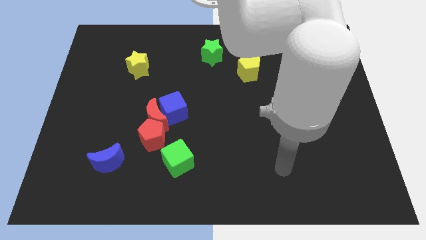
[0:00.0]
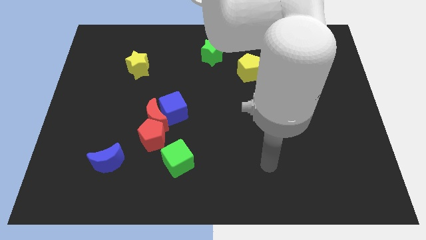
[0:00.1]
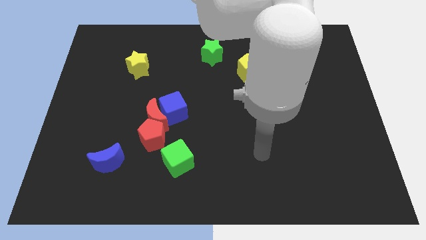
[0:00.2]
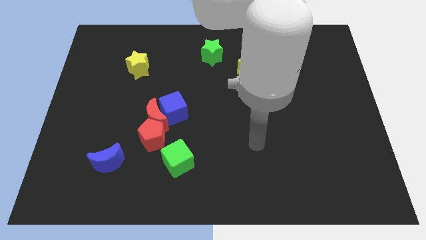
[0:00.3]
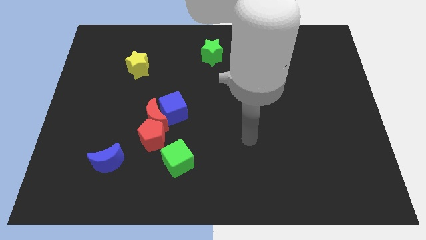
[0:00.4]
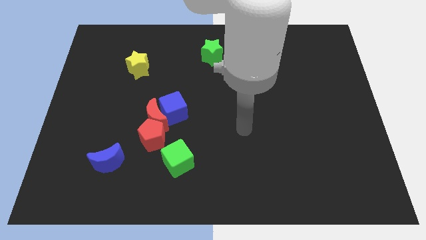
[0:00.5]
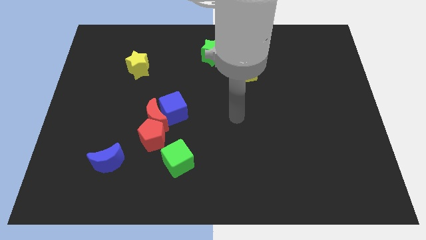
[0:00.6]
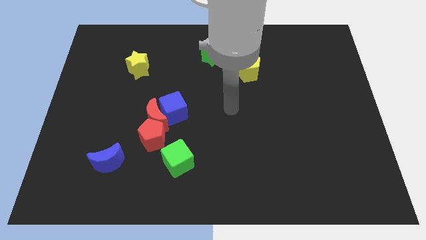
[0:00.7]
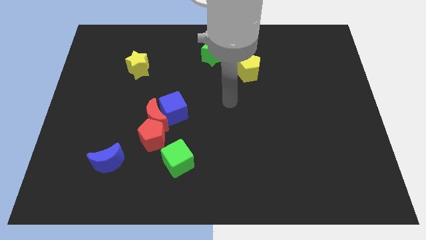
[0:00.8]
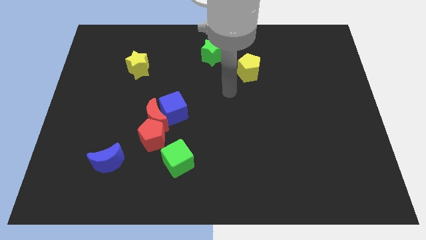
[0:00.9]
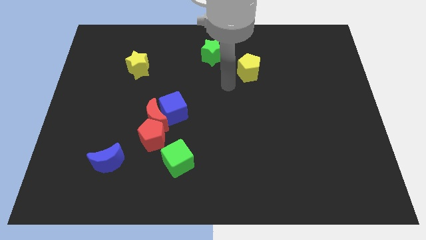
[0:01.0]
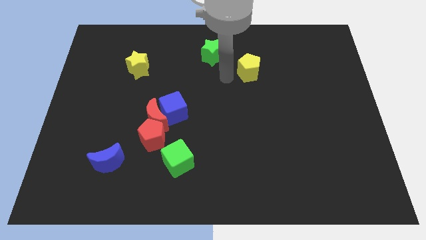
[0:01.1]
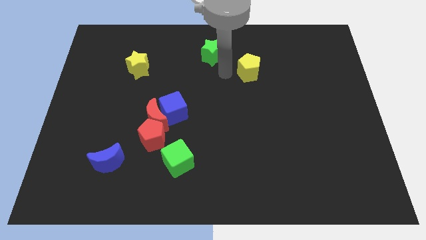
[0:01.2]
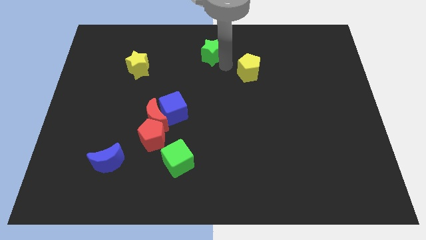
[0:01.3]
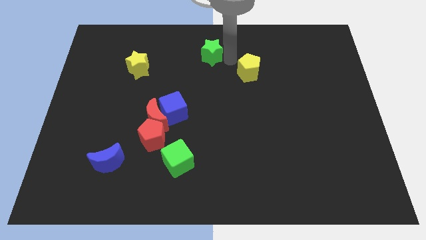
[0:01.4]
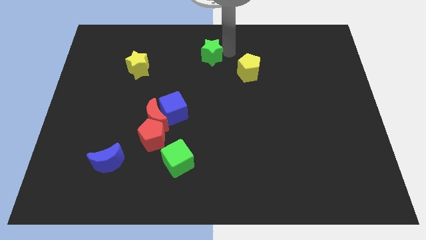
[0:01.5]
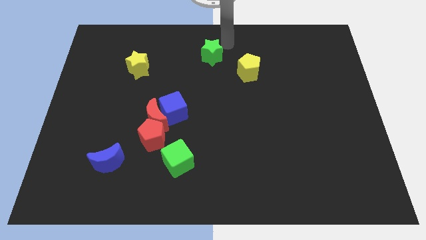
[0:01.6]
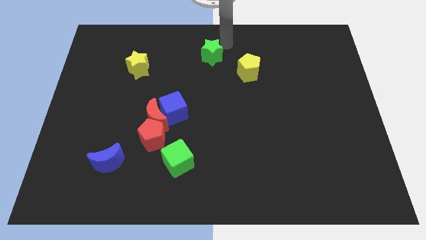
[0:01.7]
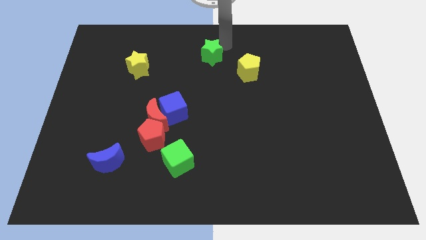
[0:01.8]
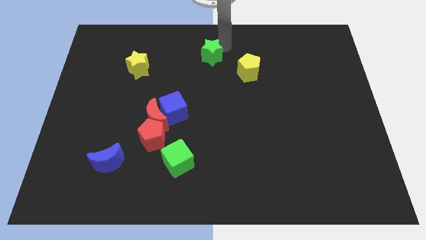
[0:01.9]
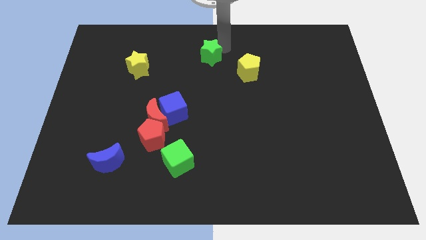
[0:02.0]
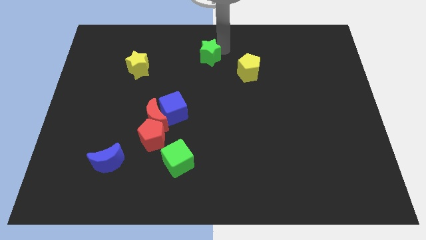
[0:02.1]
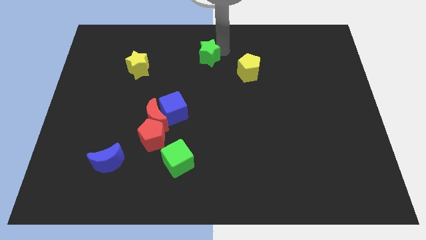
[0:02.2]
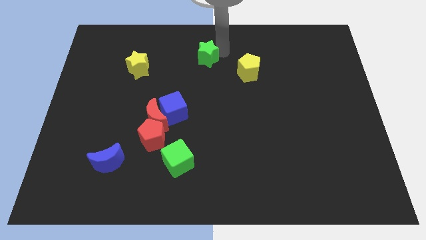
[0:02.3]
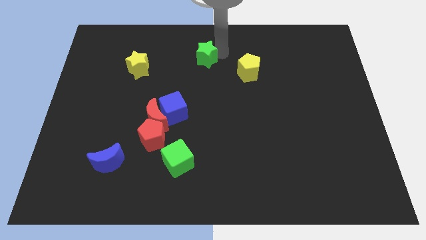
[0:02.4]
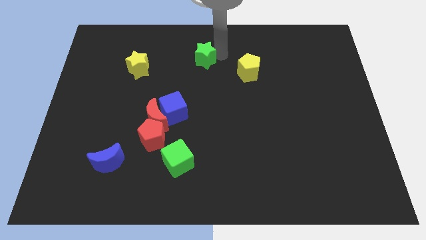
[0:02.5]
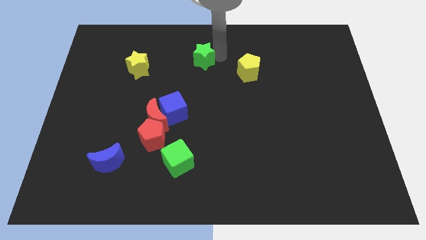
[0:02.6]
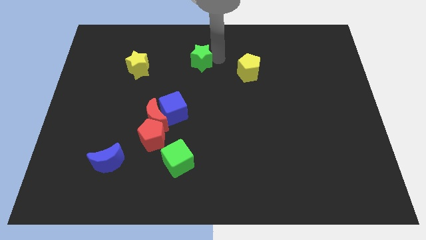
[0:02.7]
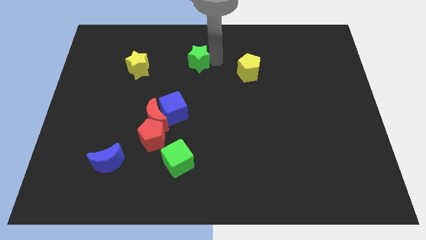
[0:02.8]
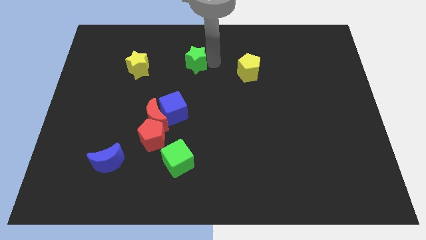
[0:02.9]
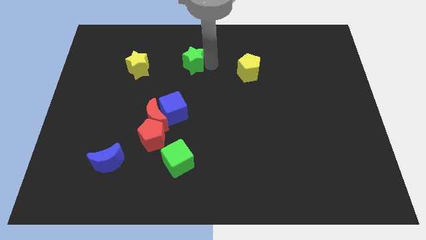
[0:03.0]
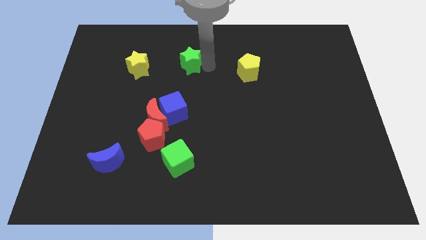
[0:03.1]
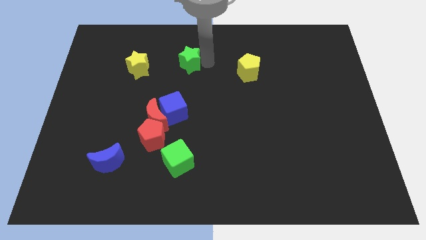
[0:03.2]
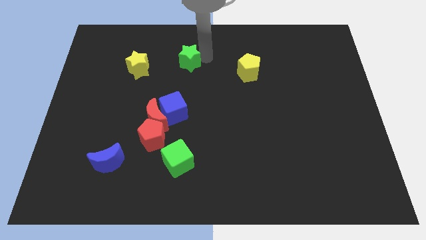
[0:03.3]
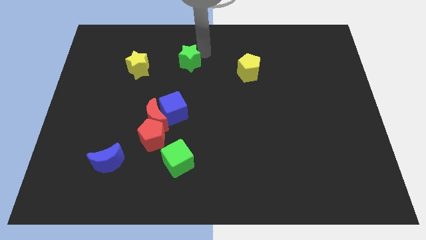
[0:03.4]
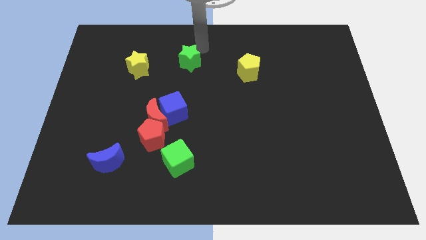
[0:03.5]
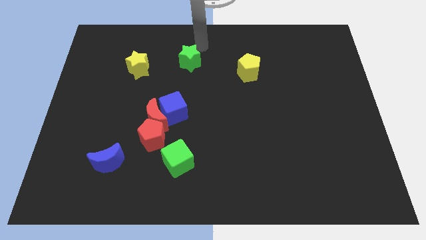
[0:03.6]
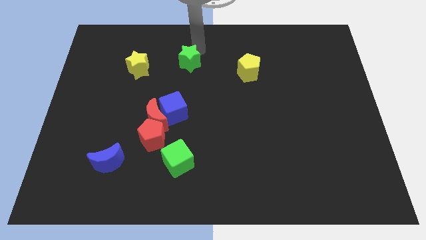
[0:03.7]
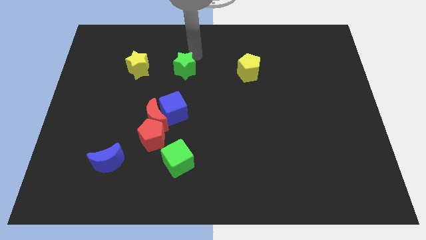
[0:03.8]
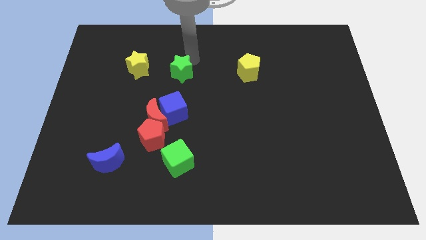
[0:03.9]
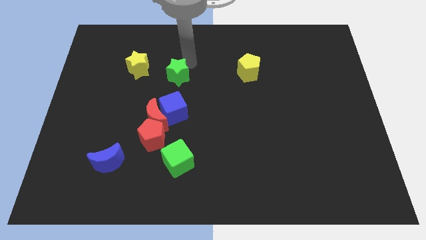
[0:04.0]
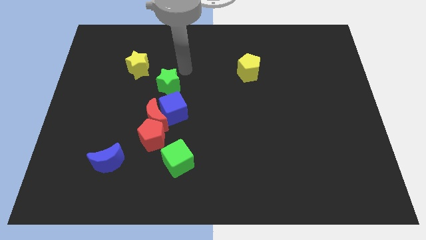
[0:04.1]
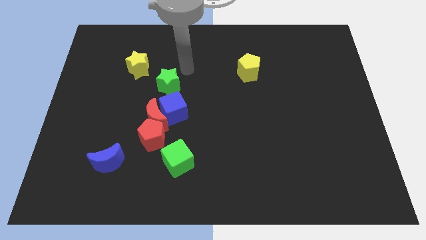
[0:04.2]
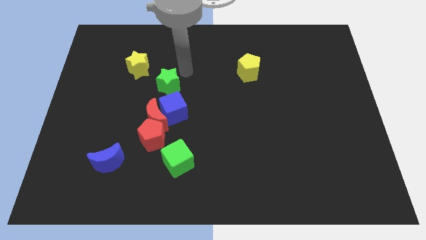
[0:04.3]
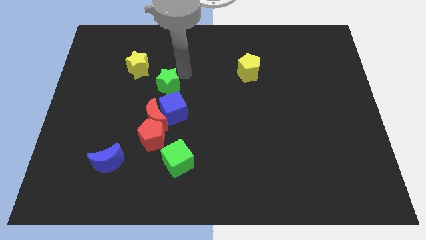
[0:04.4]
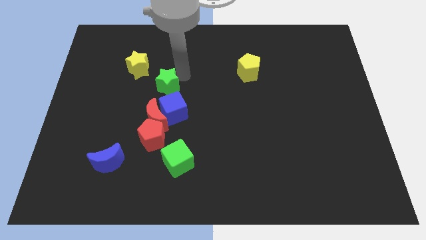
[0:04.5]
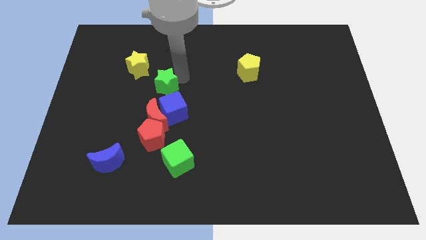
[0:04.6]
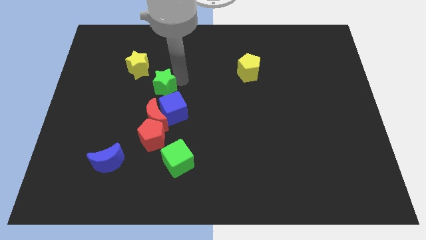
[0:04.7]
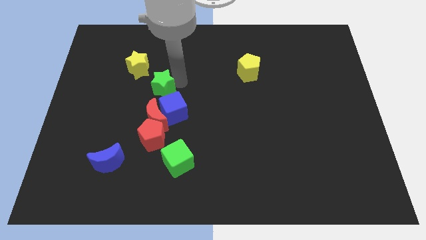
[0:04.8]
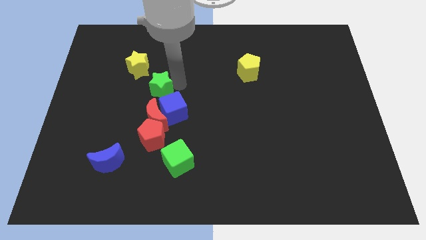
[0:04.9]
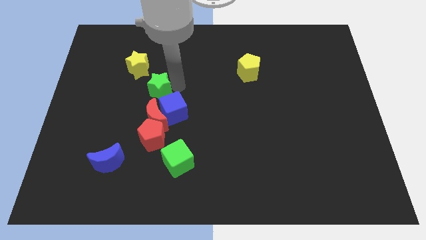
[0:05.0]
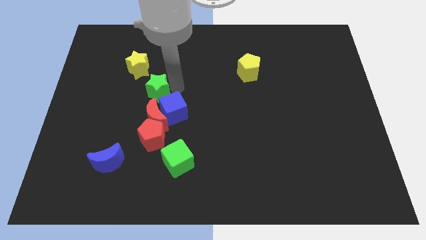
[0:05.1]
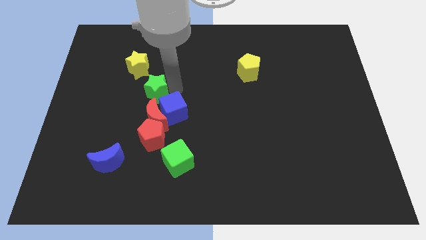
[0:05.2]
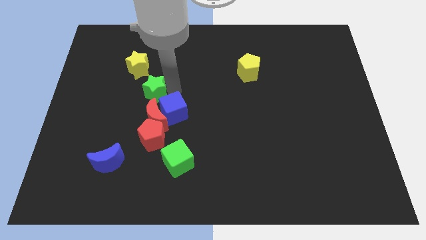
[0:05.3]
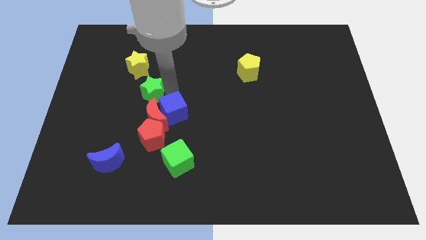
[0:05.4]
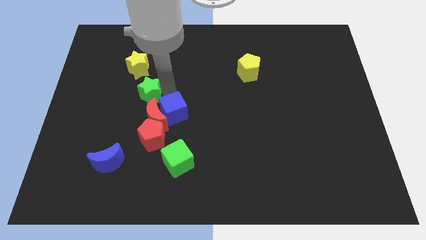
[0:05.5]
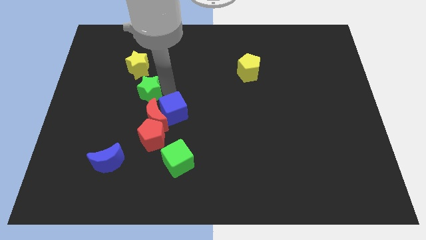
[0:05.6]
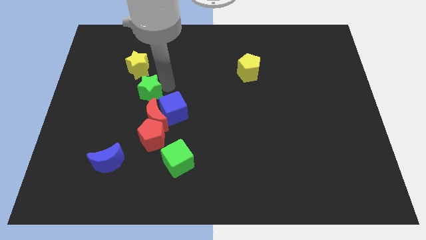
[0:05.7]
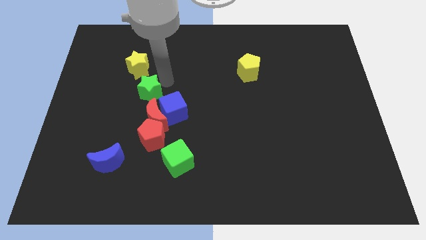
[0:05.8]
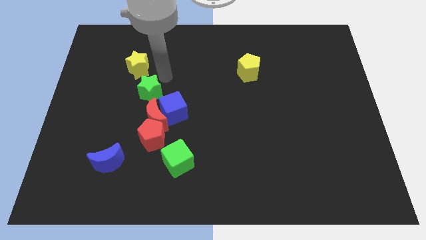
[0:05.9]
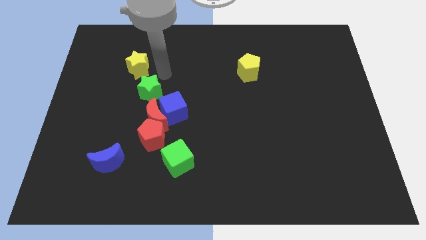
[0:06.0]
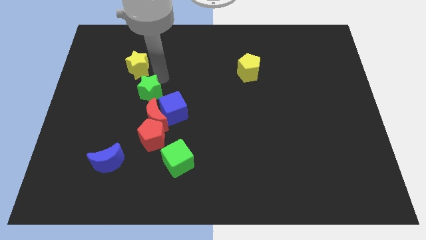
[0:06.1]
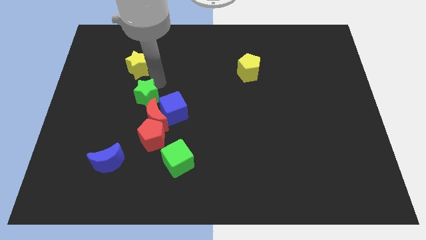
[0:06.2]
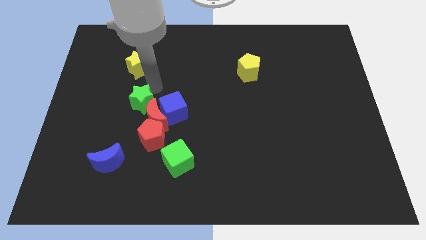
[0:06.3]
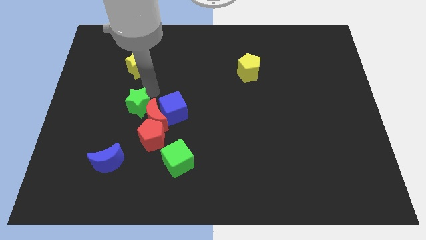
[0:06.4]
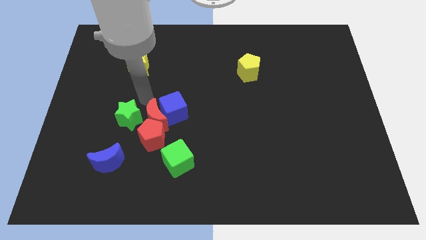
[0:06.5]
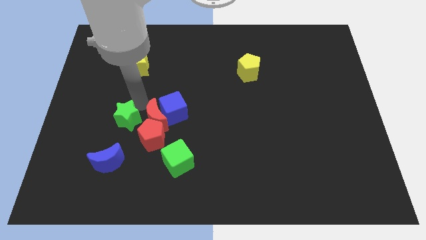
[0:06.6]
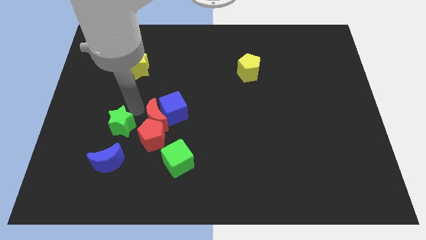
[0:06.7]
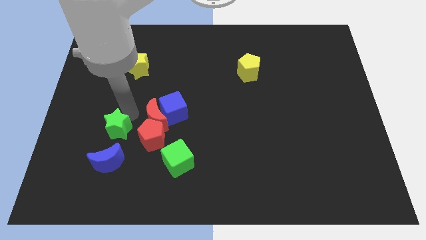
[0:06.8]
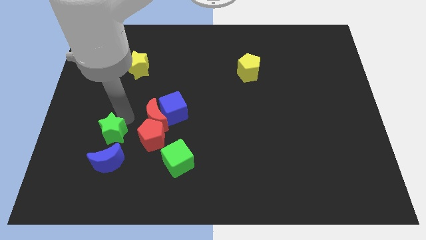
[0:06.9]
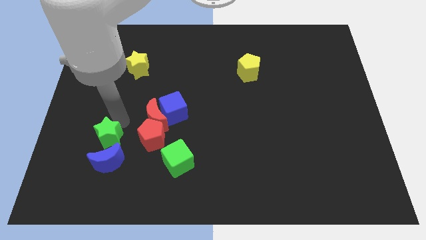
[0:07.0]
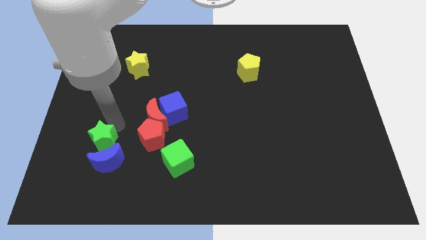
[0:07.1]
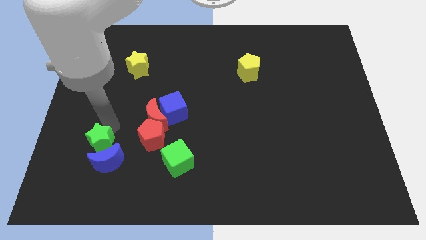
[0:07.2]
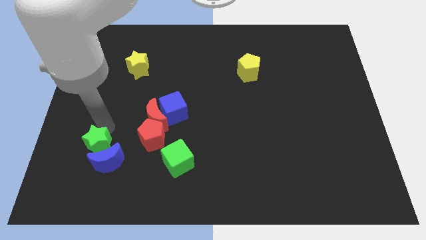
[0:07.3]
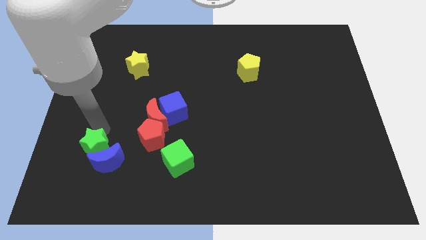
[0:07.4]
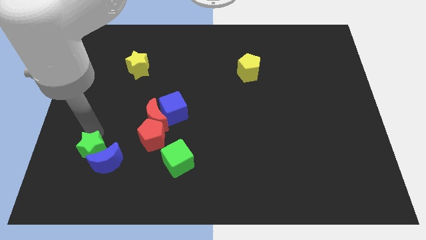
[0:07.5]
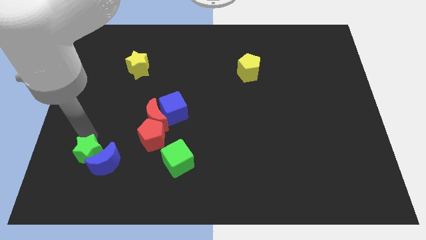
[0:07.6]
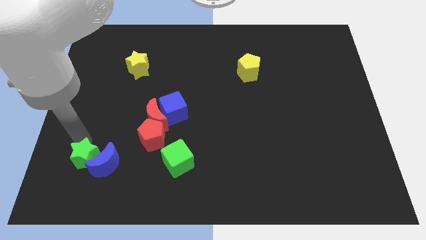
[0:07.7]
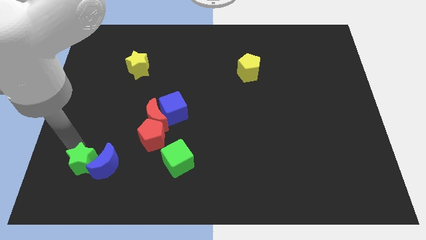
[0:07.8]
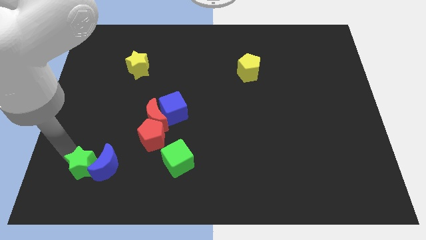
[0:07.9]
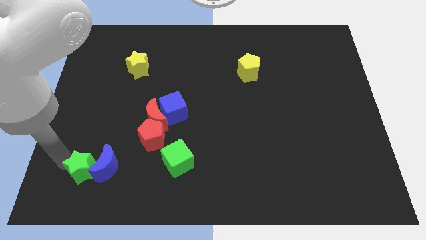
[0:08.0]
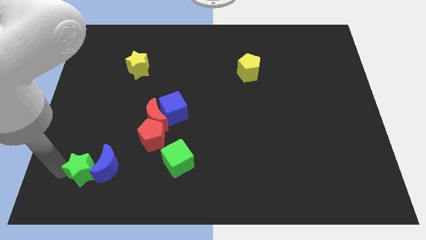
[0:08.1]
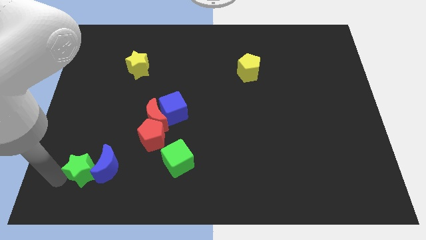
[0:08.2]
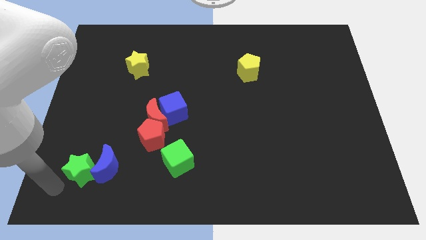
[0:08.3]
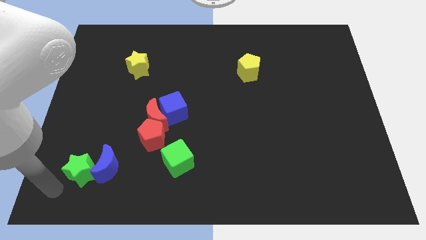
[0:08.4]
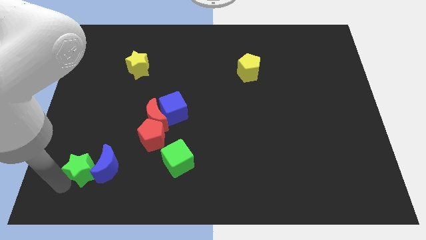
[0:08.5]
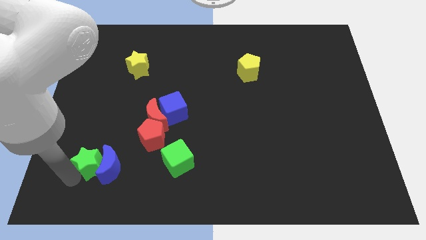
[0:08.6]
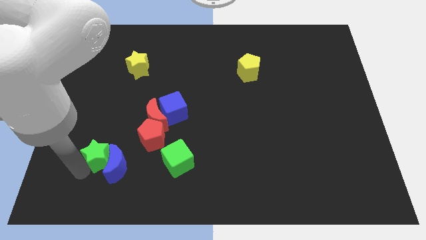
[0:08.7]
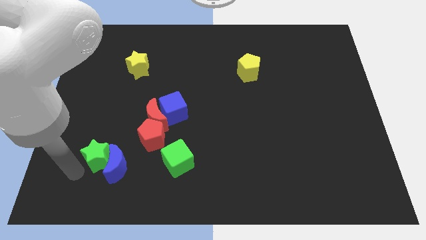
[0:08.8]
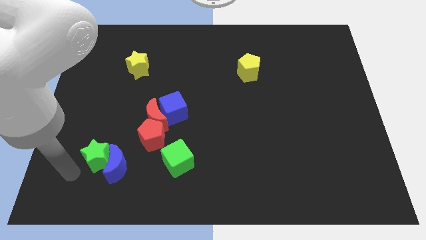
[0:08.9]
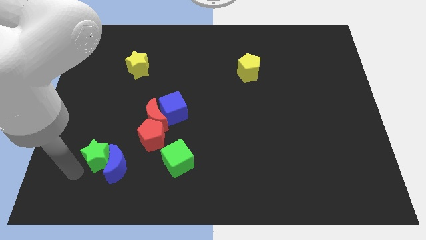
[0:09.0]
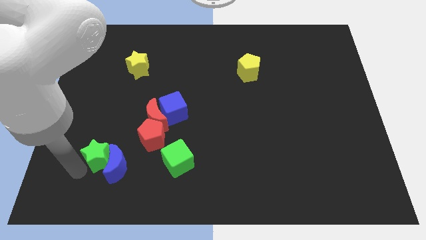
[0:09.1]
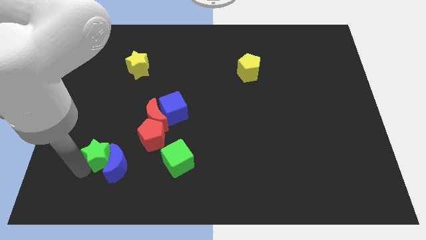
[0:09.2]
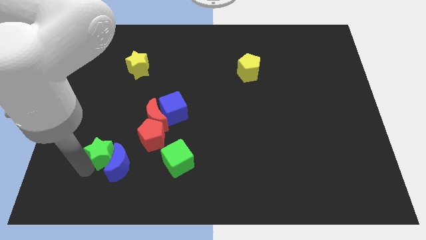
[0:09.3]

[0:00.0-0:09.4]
push the green star to the left side of the green cube
